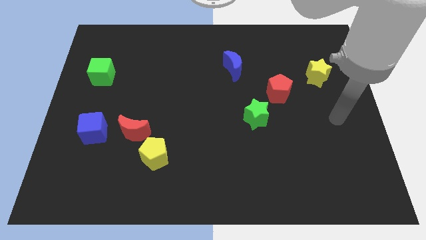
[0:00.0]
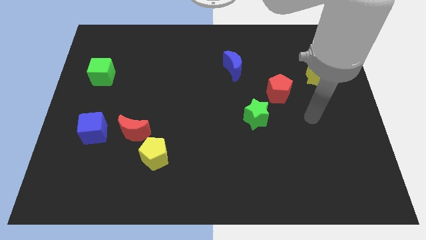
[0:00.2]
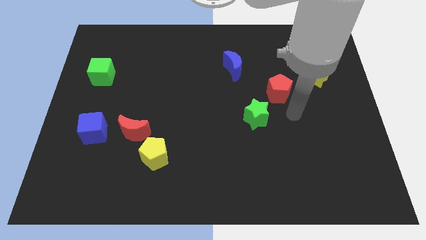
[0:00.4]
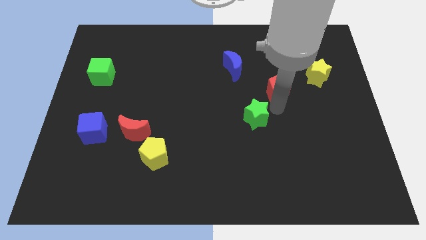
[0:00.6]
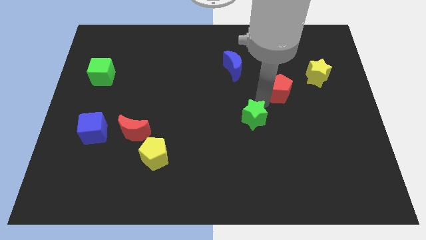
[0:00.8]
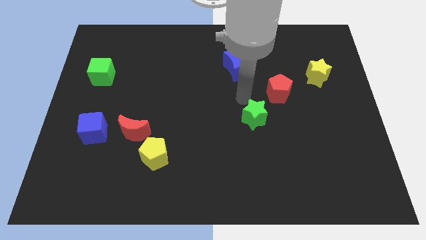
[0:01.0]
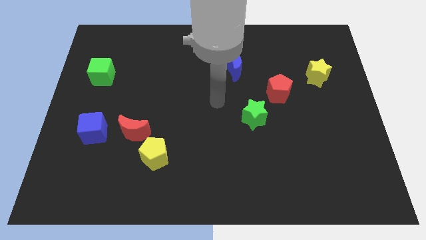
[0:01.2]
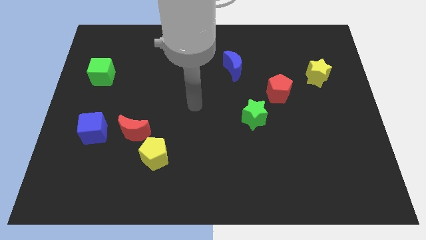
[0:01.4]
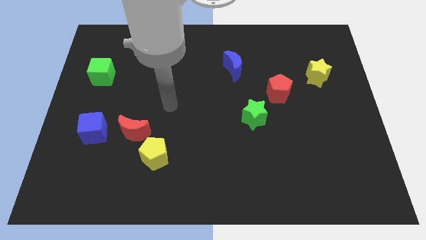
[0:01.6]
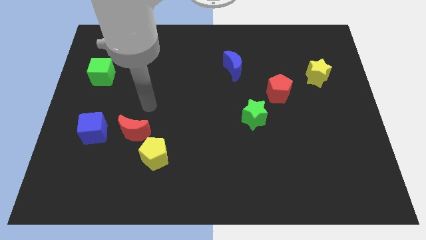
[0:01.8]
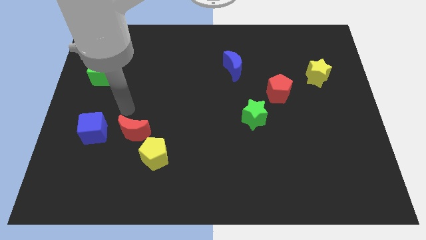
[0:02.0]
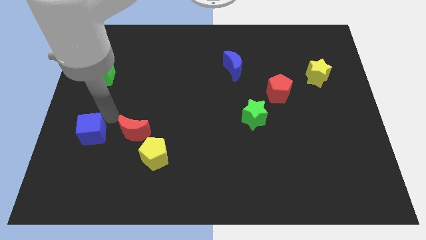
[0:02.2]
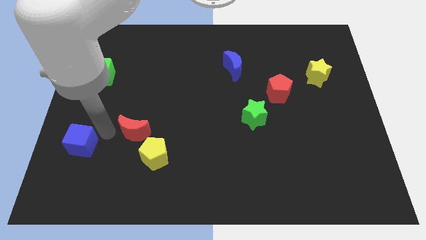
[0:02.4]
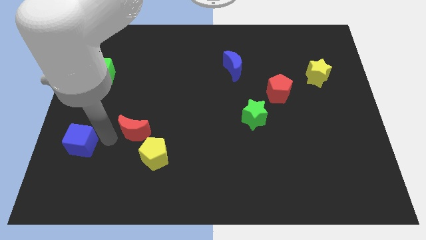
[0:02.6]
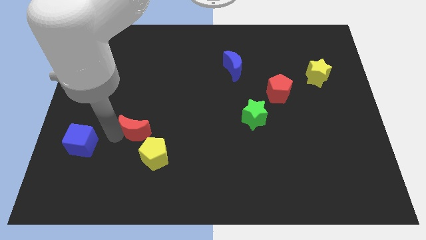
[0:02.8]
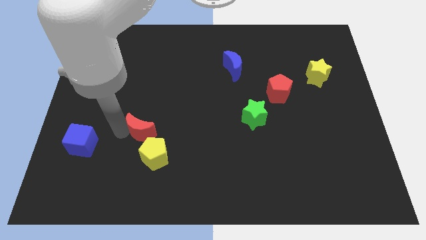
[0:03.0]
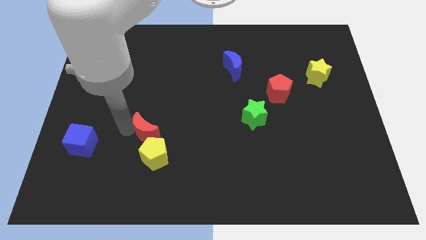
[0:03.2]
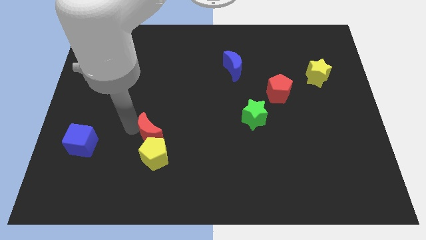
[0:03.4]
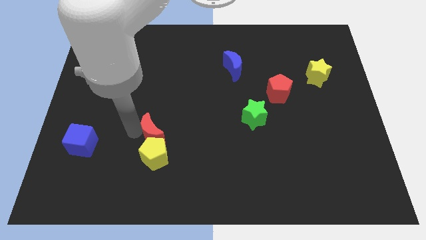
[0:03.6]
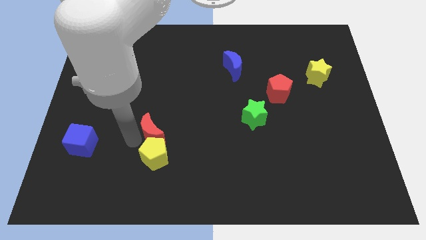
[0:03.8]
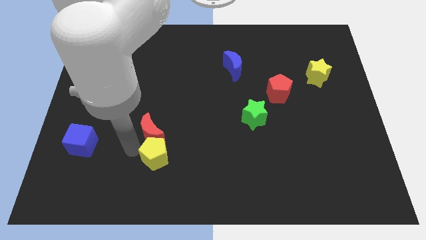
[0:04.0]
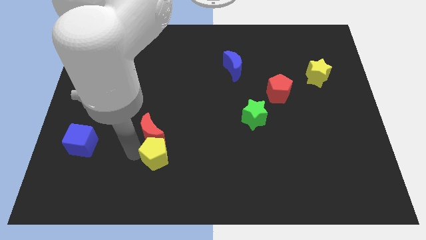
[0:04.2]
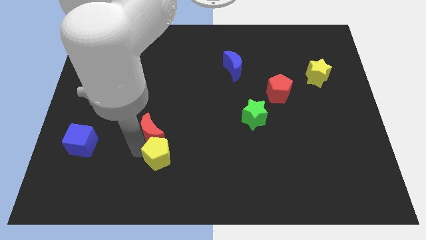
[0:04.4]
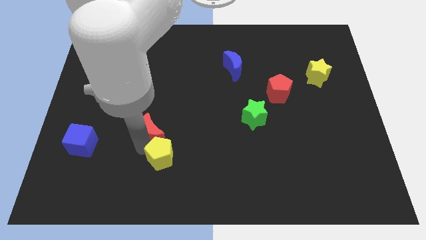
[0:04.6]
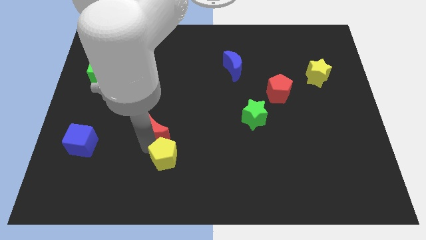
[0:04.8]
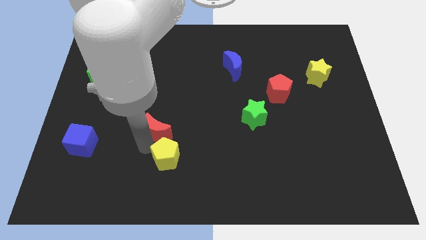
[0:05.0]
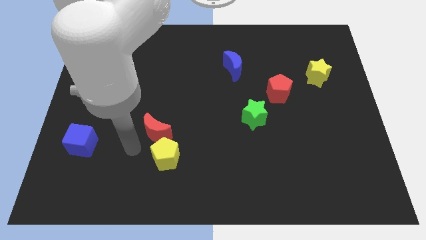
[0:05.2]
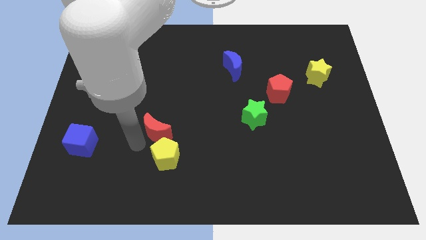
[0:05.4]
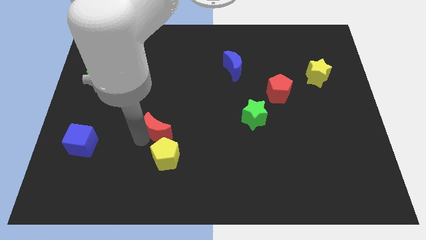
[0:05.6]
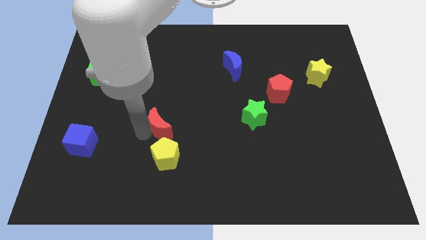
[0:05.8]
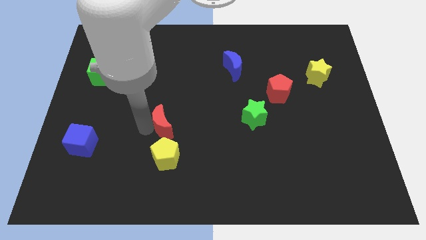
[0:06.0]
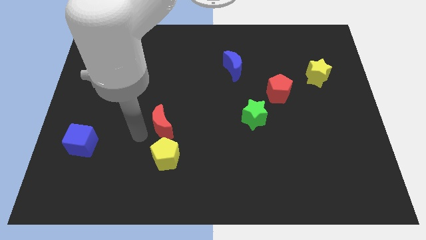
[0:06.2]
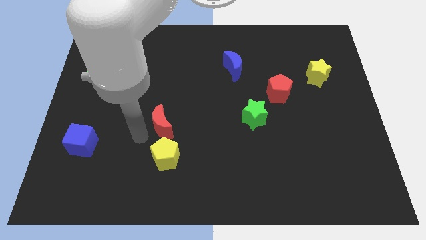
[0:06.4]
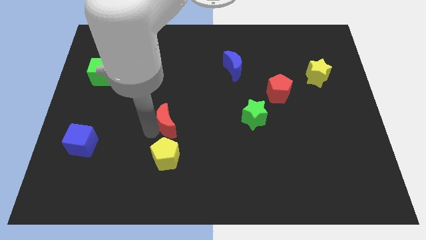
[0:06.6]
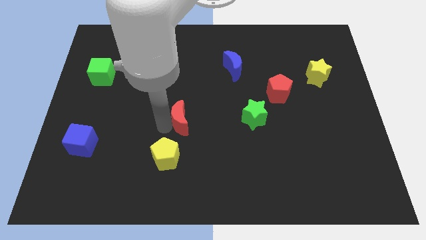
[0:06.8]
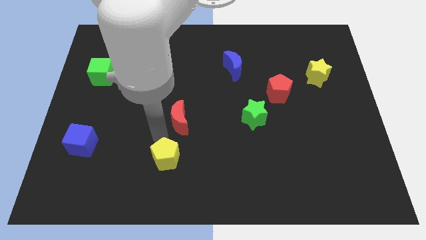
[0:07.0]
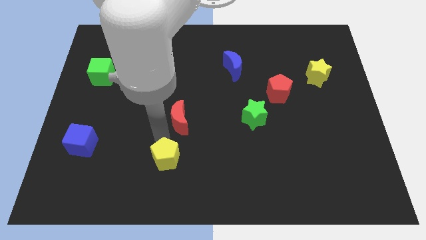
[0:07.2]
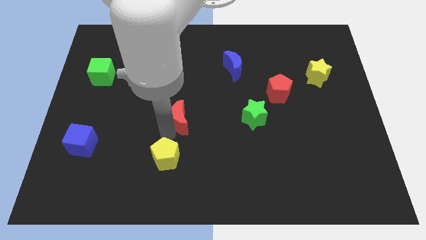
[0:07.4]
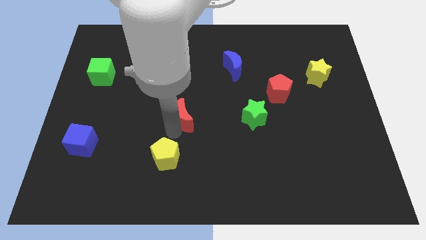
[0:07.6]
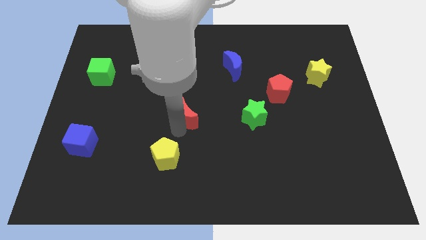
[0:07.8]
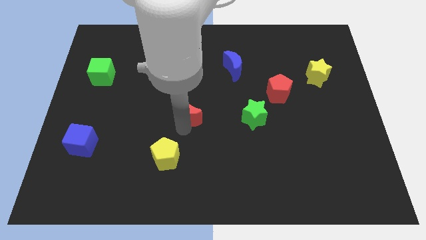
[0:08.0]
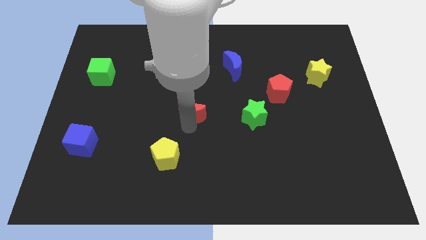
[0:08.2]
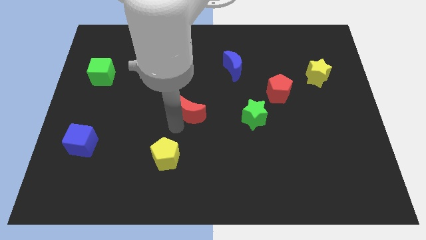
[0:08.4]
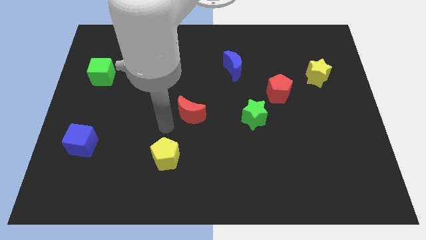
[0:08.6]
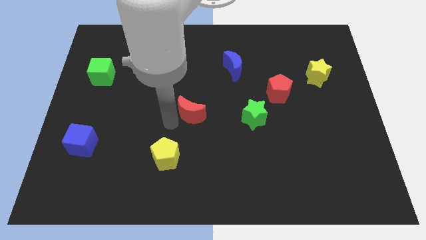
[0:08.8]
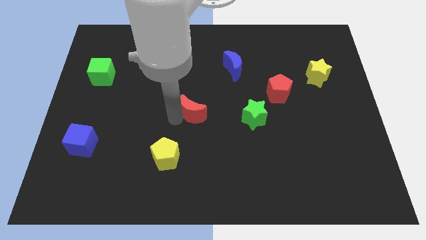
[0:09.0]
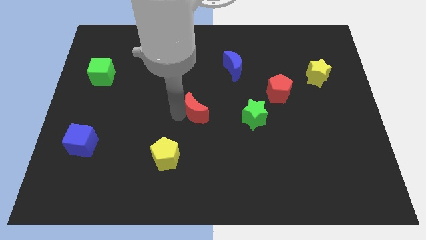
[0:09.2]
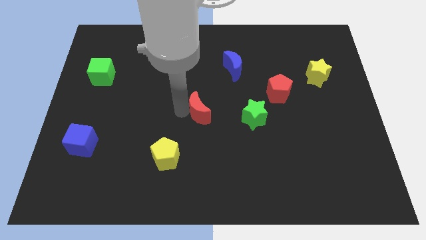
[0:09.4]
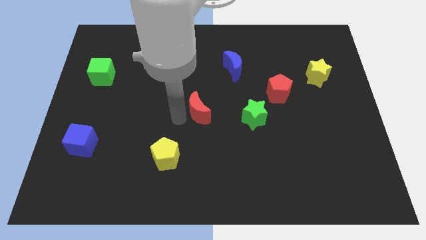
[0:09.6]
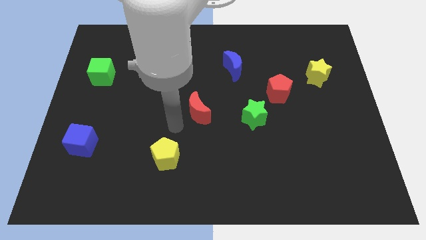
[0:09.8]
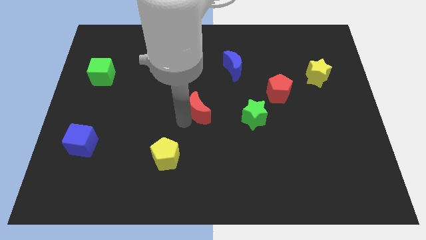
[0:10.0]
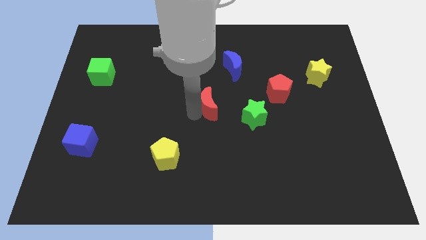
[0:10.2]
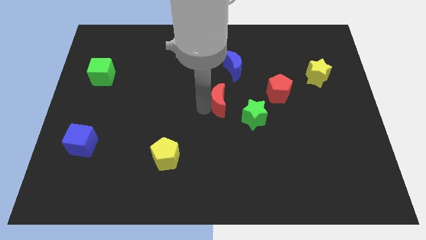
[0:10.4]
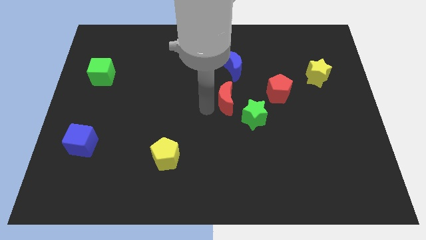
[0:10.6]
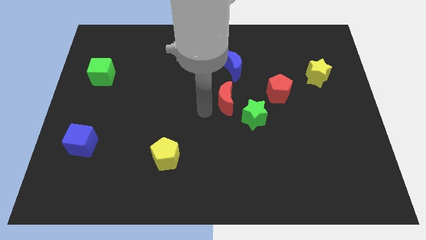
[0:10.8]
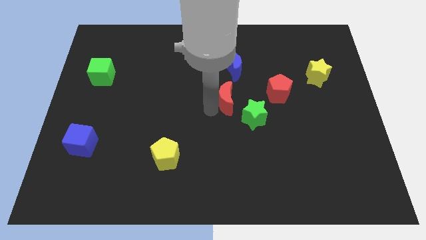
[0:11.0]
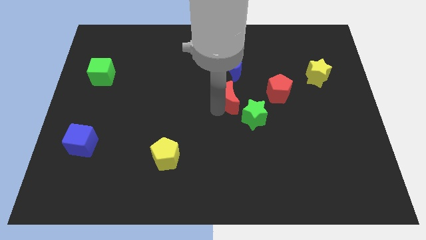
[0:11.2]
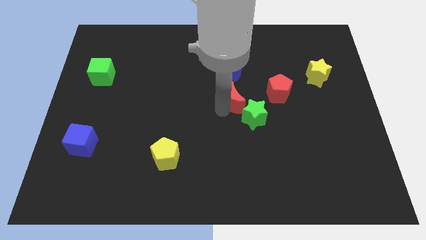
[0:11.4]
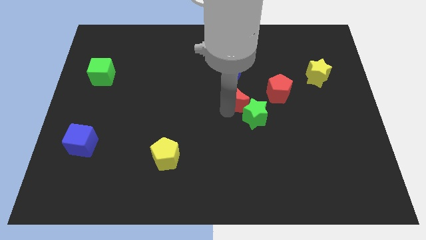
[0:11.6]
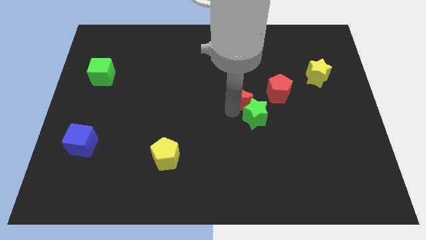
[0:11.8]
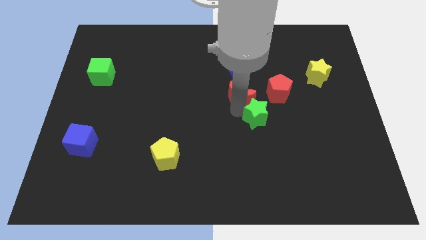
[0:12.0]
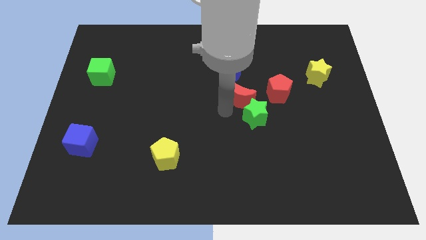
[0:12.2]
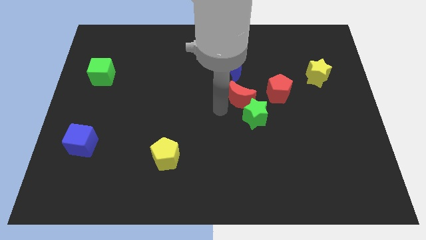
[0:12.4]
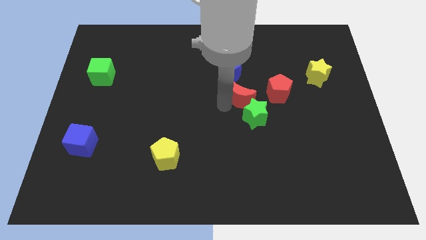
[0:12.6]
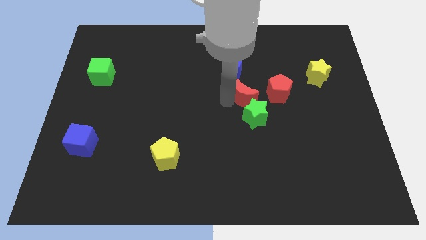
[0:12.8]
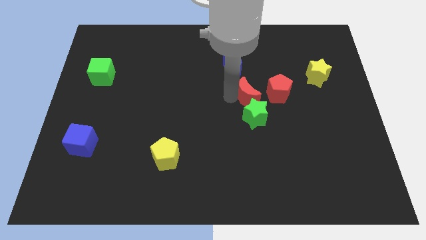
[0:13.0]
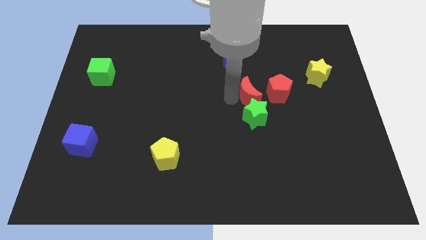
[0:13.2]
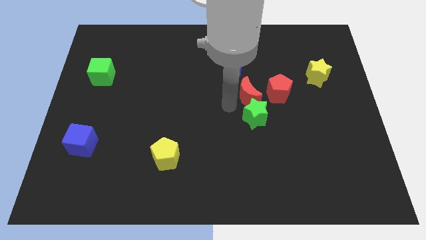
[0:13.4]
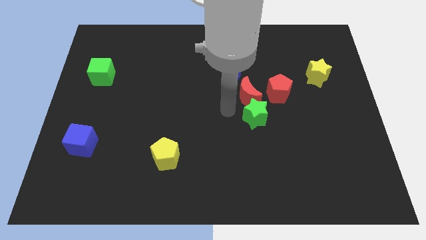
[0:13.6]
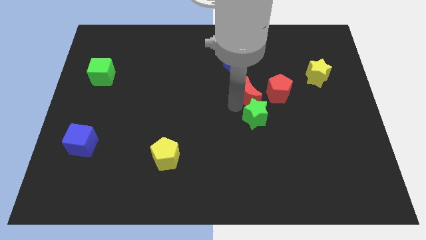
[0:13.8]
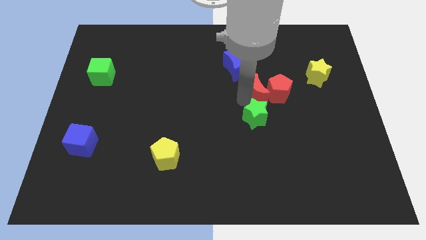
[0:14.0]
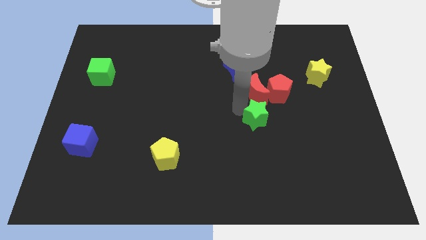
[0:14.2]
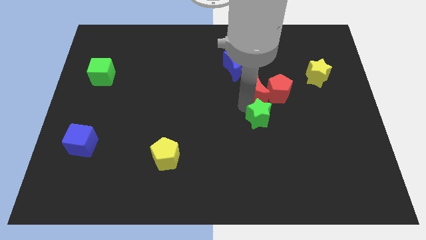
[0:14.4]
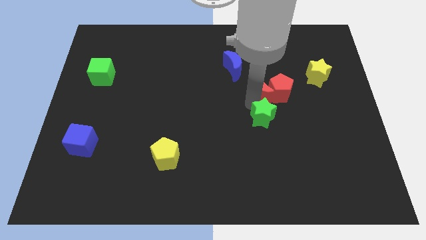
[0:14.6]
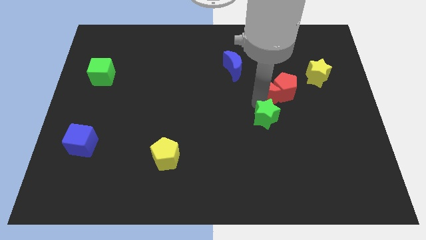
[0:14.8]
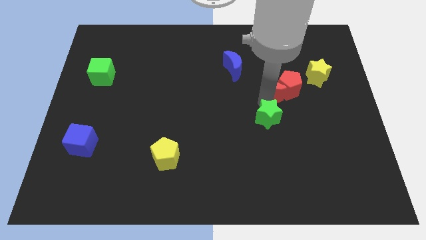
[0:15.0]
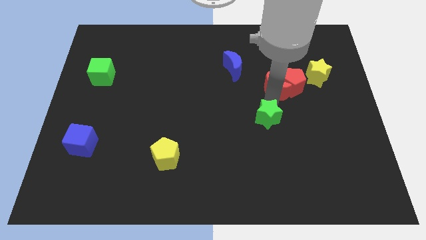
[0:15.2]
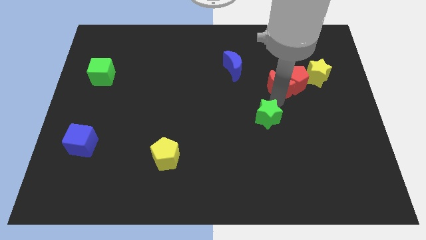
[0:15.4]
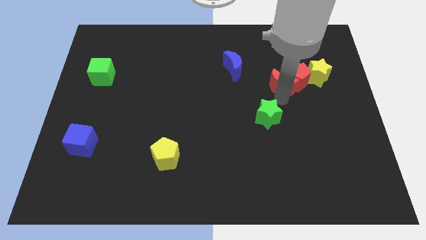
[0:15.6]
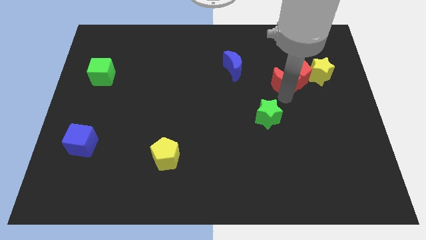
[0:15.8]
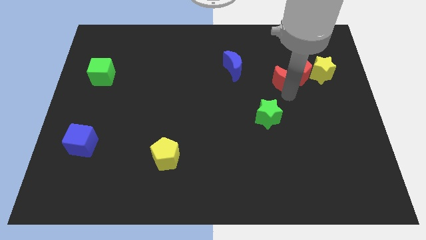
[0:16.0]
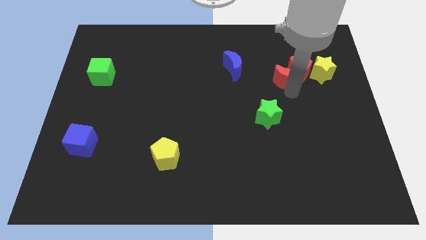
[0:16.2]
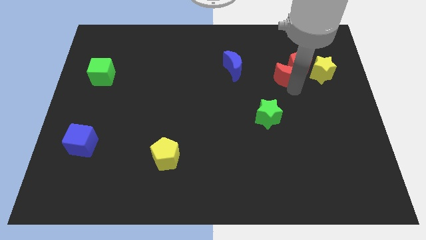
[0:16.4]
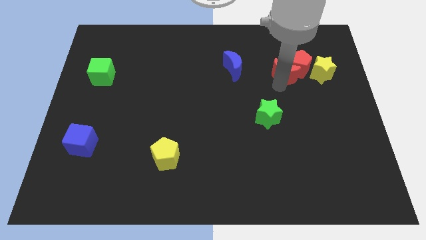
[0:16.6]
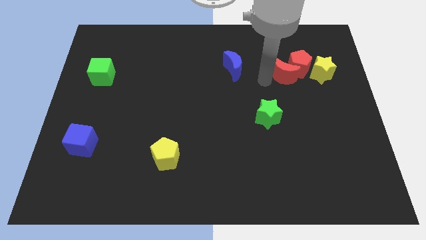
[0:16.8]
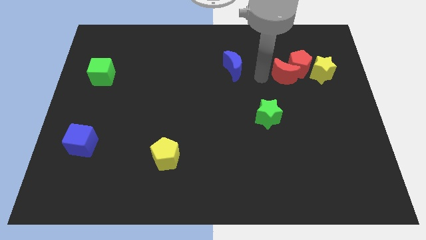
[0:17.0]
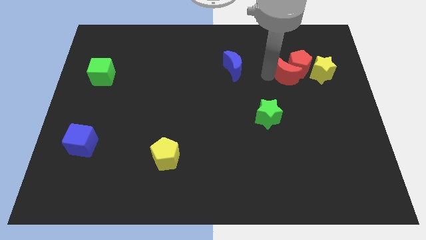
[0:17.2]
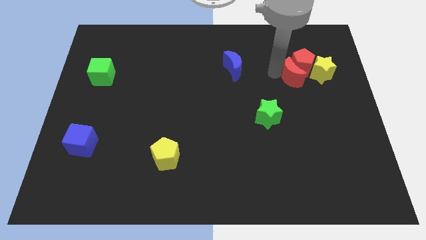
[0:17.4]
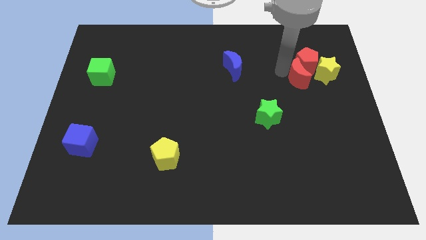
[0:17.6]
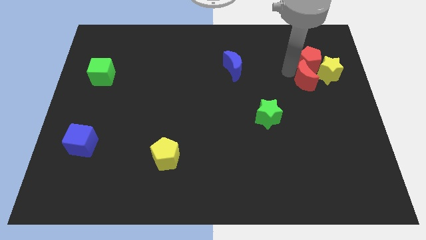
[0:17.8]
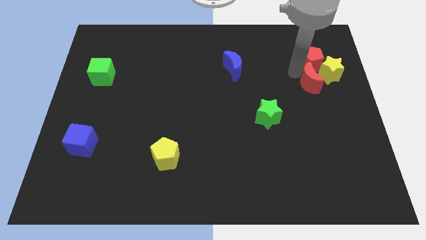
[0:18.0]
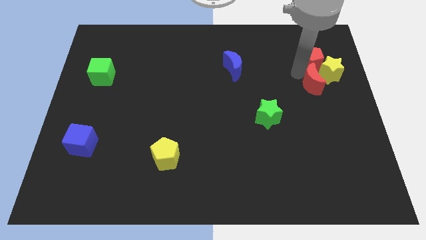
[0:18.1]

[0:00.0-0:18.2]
move the red moon close to the yellow star
